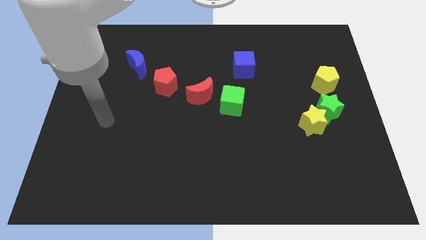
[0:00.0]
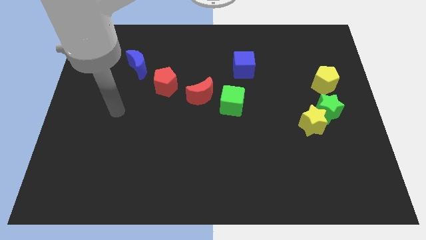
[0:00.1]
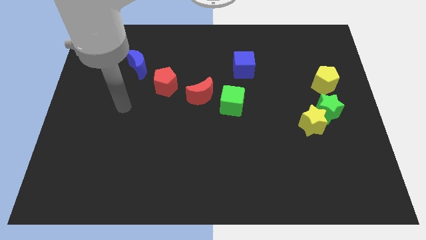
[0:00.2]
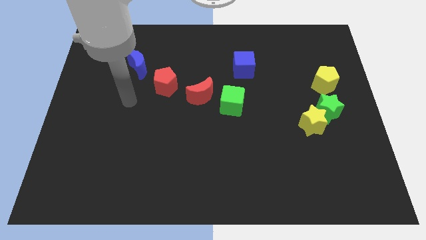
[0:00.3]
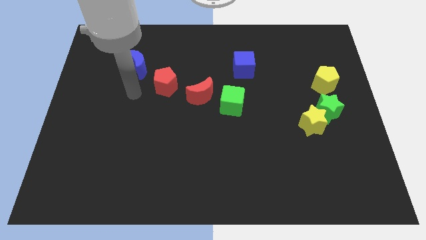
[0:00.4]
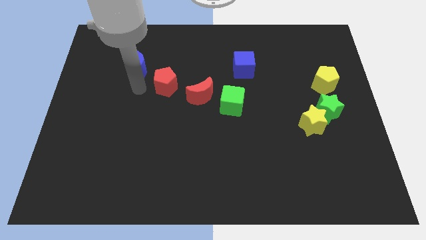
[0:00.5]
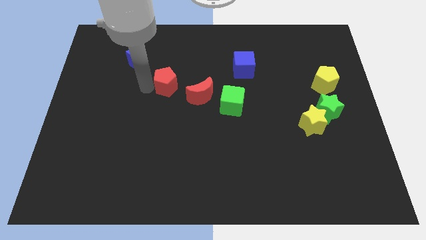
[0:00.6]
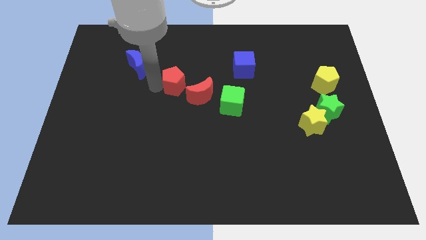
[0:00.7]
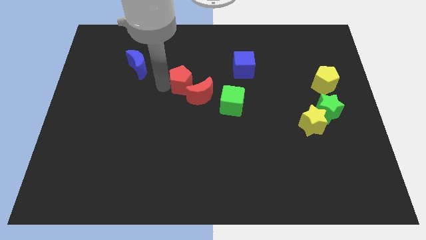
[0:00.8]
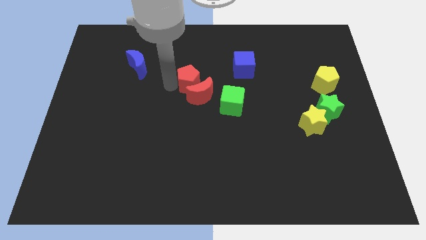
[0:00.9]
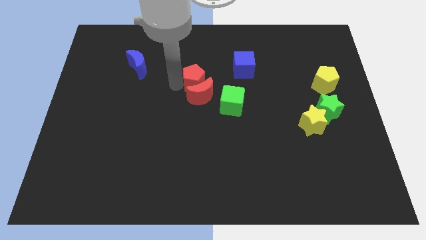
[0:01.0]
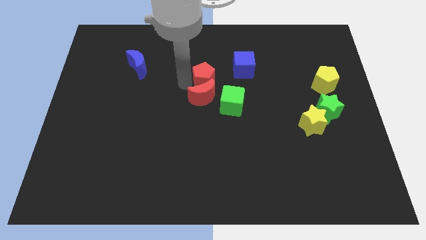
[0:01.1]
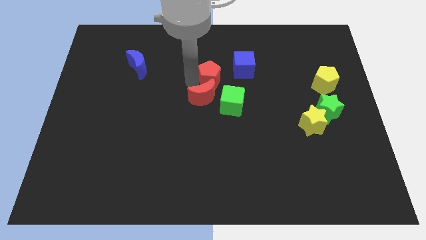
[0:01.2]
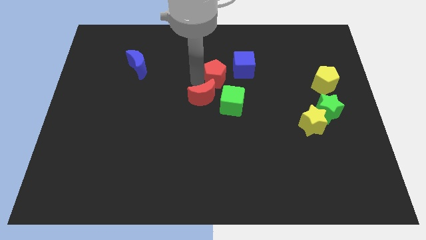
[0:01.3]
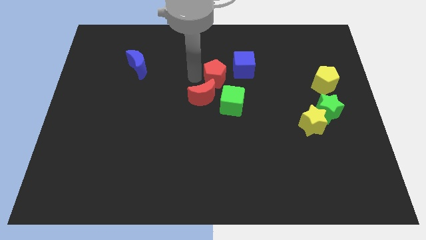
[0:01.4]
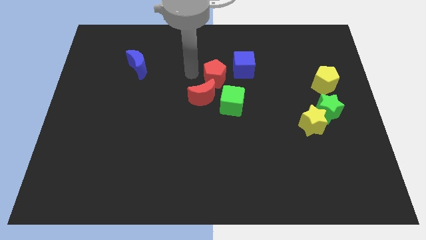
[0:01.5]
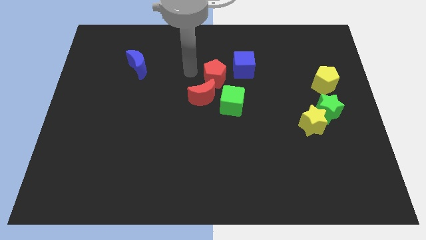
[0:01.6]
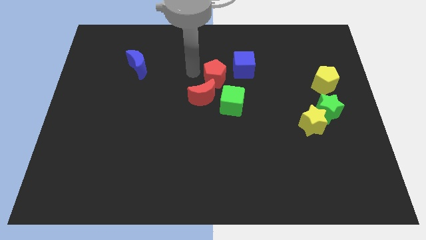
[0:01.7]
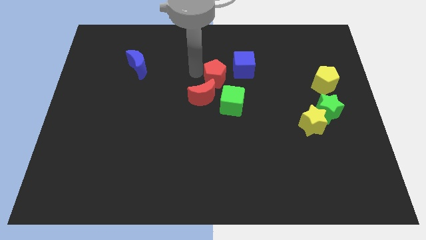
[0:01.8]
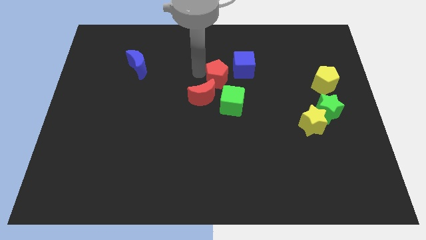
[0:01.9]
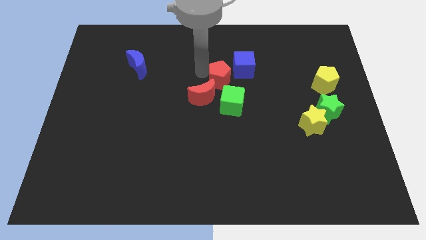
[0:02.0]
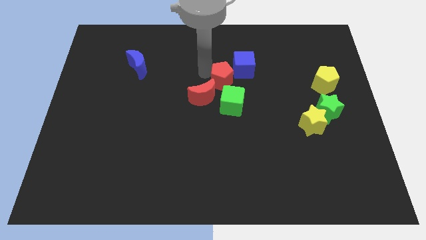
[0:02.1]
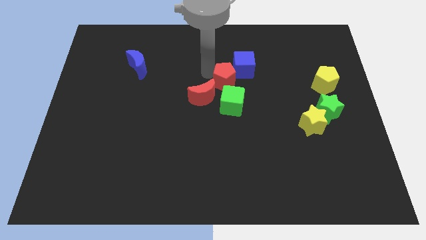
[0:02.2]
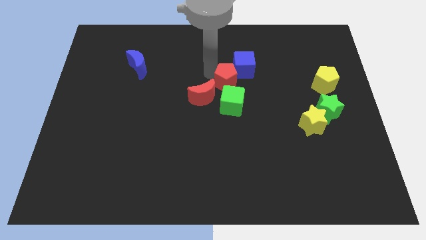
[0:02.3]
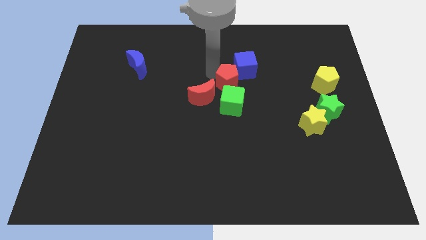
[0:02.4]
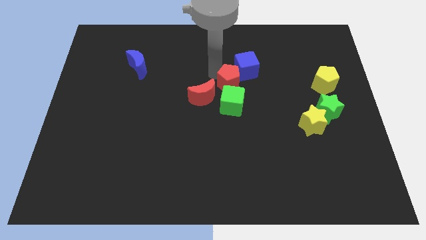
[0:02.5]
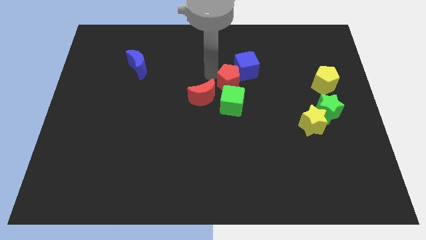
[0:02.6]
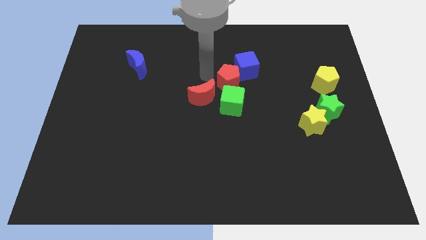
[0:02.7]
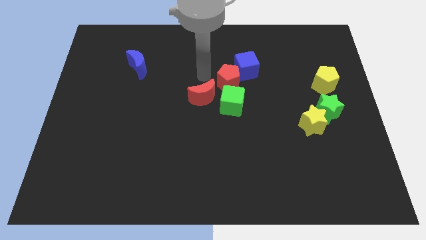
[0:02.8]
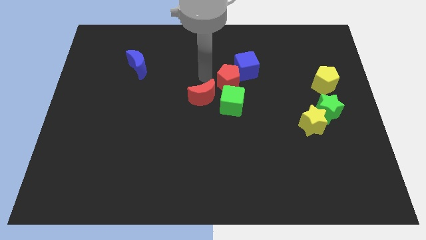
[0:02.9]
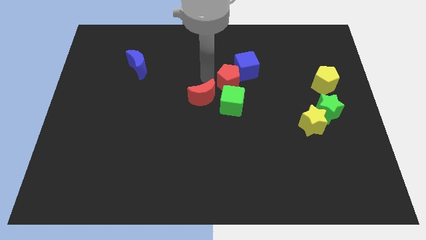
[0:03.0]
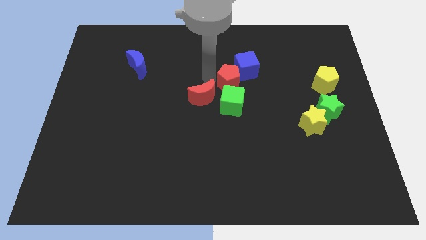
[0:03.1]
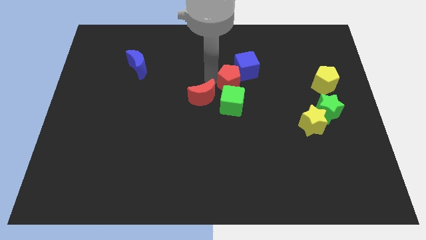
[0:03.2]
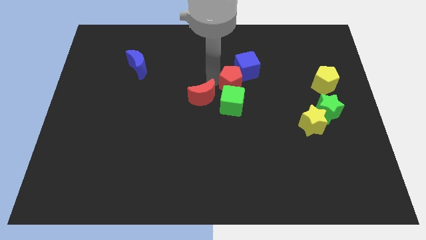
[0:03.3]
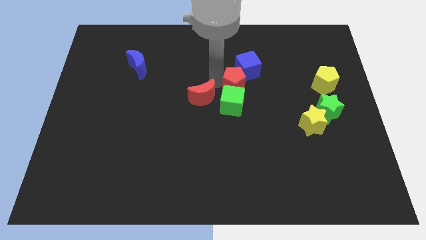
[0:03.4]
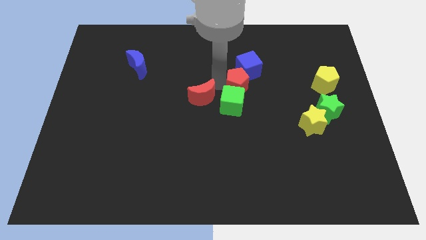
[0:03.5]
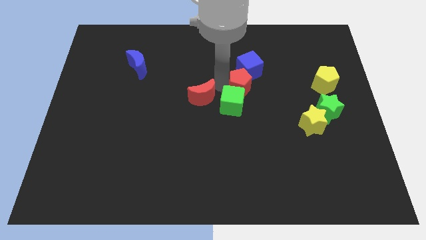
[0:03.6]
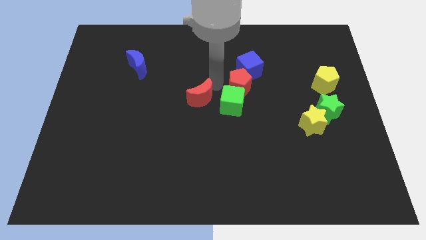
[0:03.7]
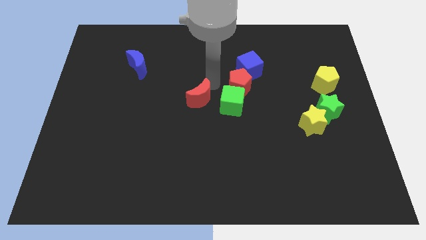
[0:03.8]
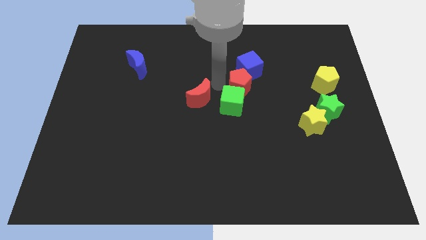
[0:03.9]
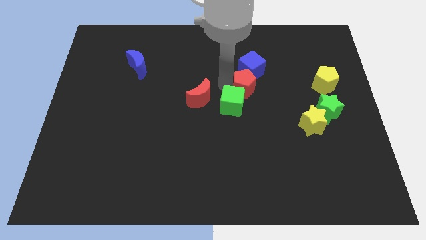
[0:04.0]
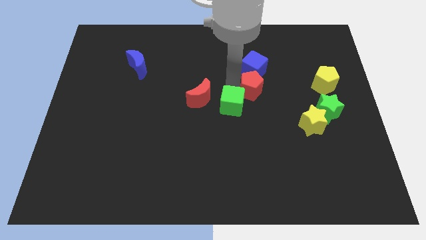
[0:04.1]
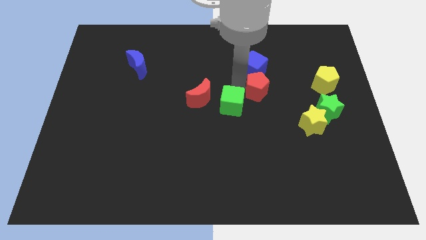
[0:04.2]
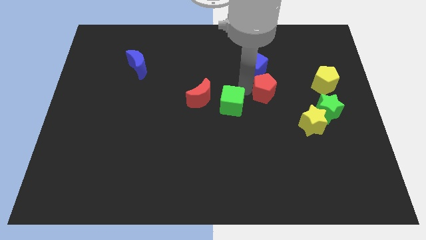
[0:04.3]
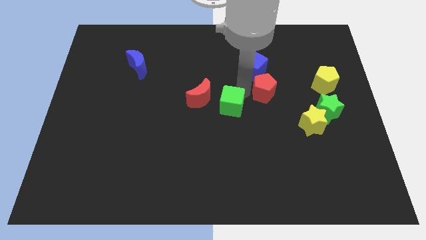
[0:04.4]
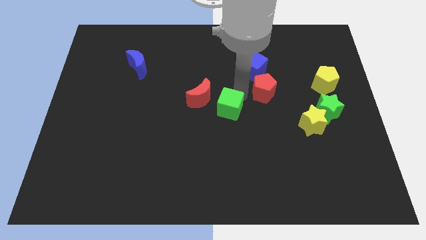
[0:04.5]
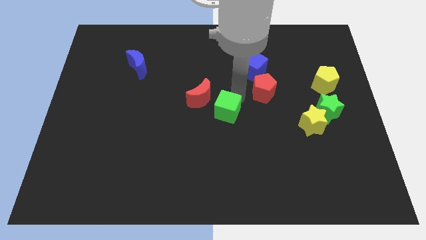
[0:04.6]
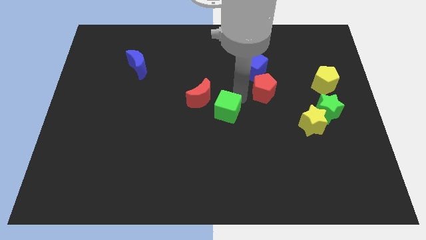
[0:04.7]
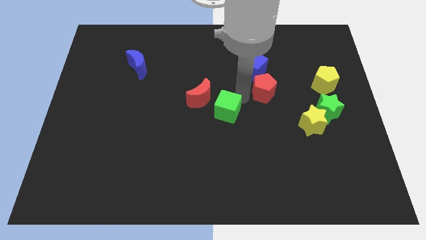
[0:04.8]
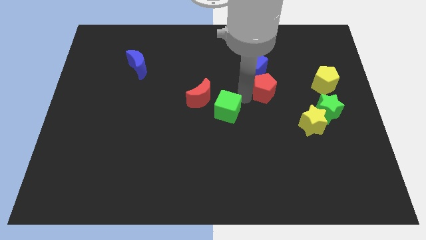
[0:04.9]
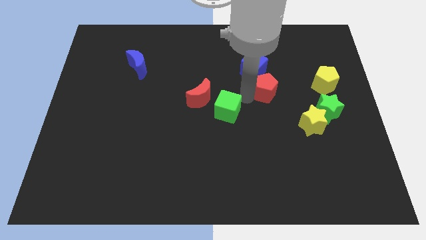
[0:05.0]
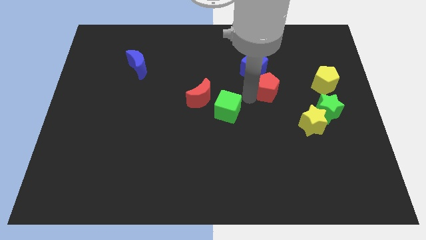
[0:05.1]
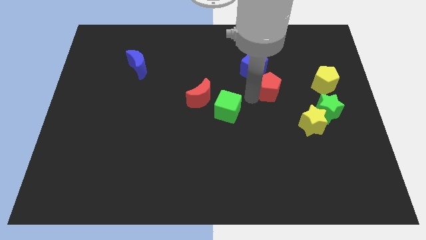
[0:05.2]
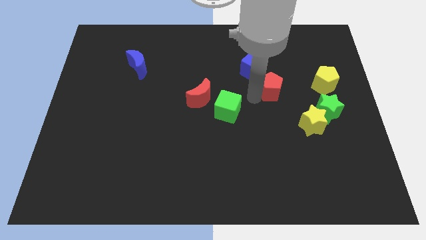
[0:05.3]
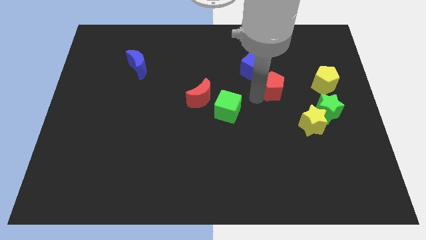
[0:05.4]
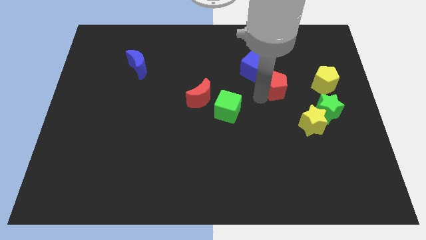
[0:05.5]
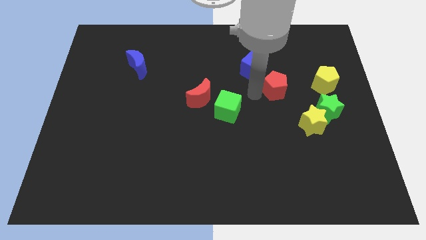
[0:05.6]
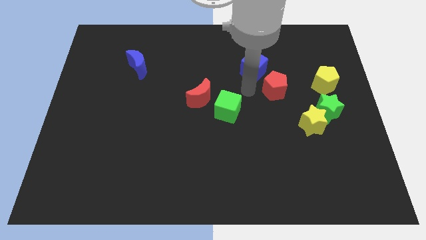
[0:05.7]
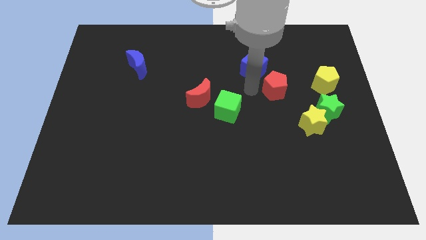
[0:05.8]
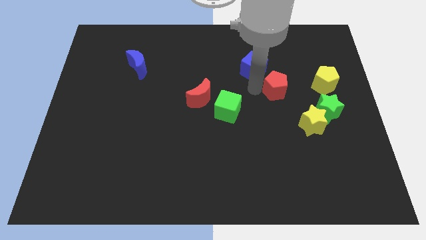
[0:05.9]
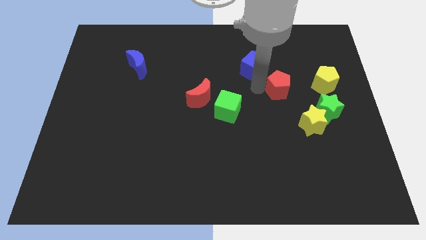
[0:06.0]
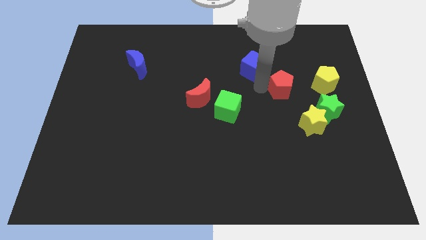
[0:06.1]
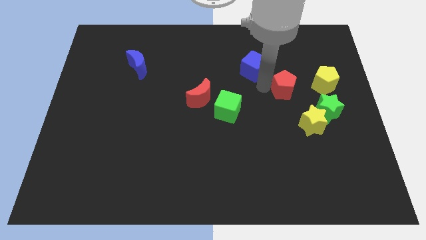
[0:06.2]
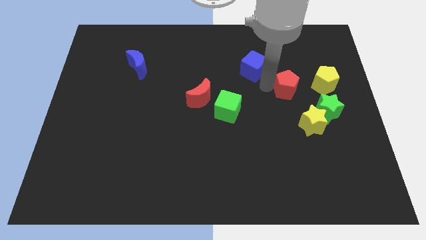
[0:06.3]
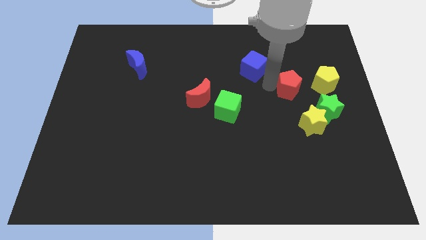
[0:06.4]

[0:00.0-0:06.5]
put the red pentagon to the top of the yellow star

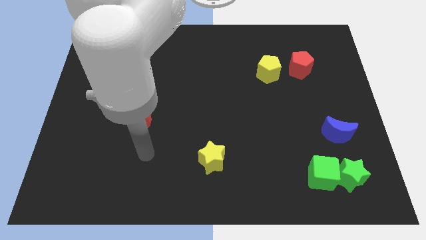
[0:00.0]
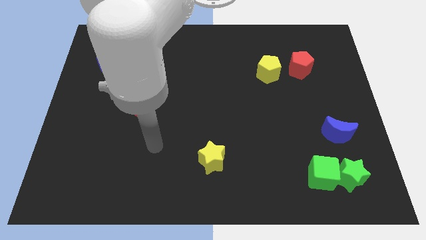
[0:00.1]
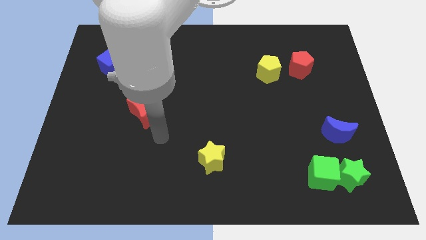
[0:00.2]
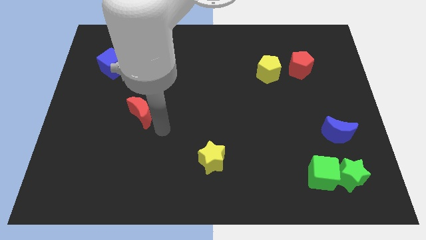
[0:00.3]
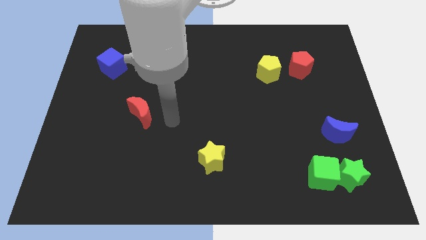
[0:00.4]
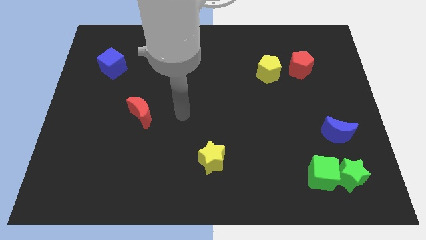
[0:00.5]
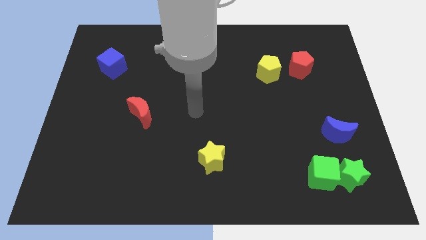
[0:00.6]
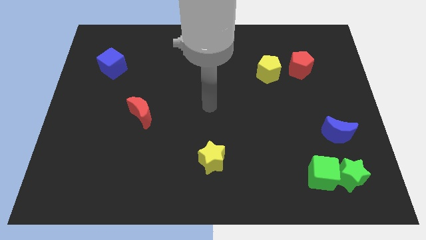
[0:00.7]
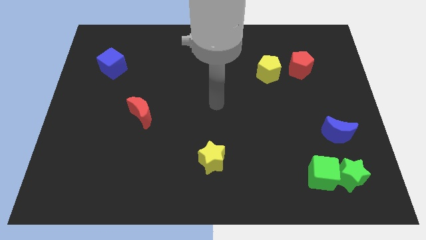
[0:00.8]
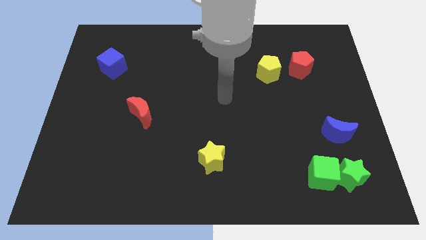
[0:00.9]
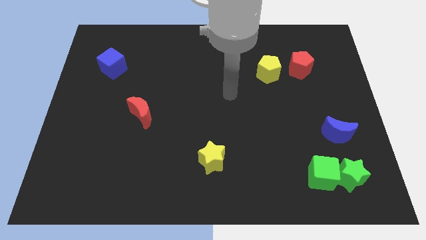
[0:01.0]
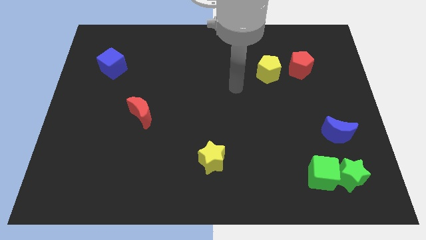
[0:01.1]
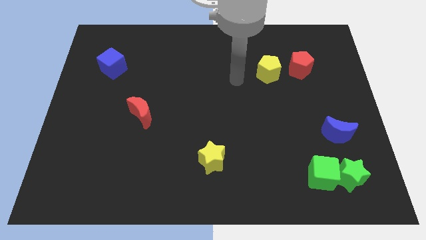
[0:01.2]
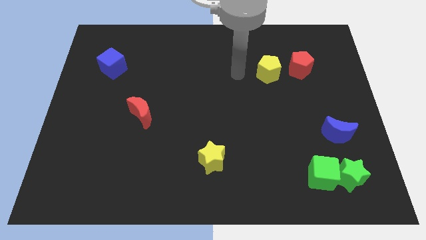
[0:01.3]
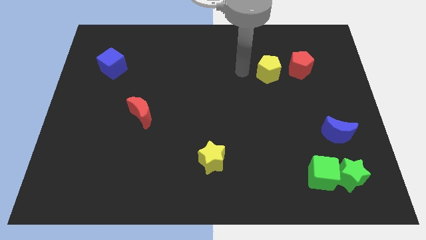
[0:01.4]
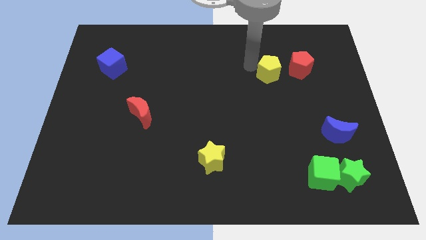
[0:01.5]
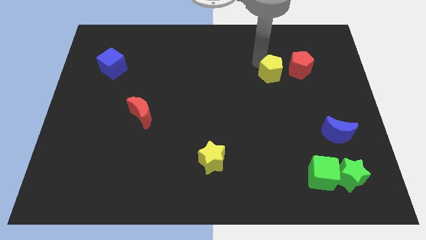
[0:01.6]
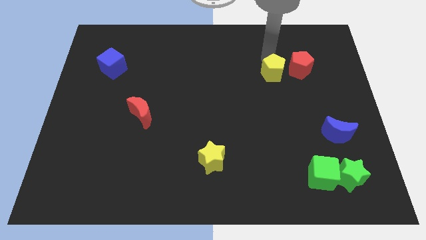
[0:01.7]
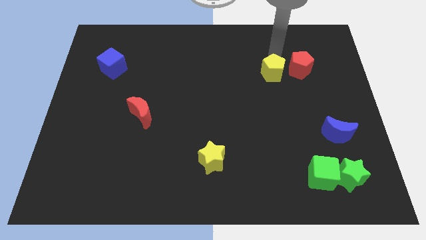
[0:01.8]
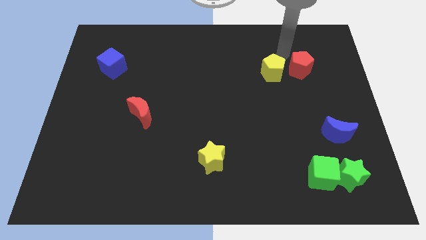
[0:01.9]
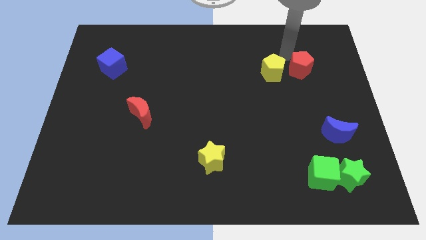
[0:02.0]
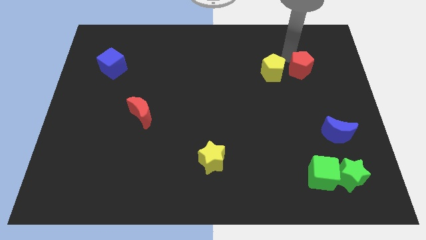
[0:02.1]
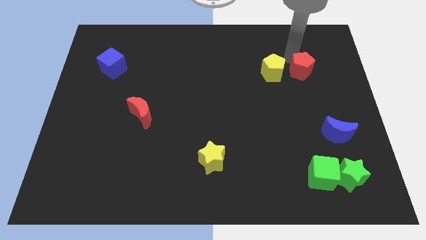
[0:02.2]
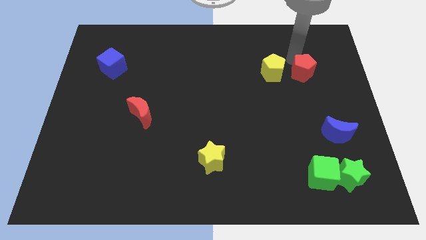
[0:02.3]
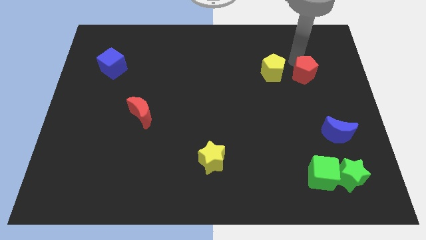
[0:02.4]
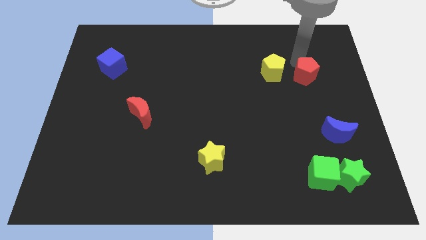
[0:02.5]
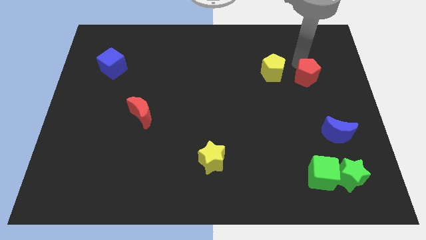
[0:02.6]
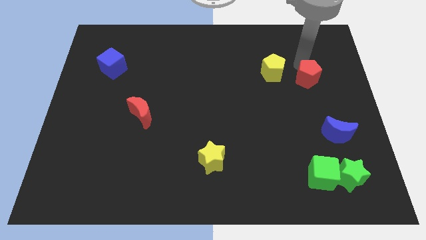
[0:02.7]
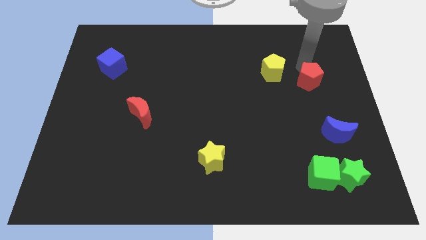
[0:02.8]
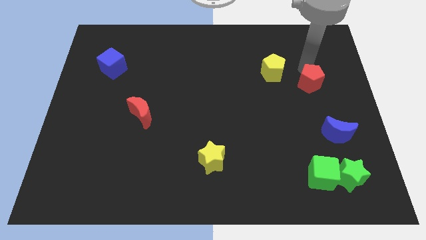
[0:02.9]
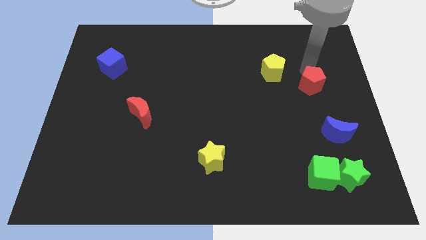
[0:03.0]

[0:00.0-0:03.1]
push the red pentagon above the blue moon
